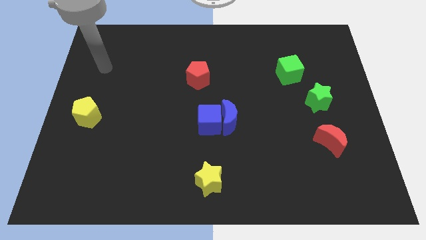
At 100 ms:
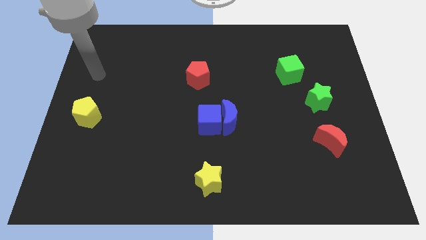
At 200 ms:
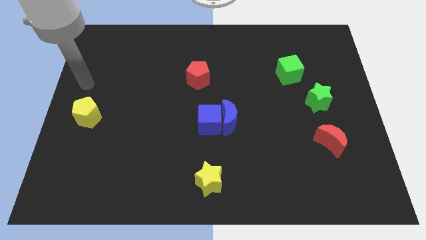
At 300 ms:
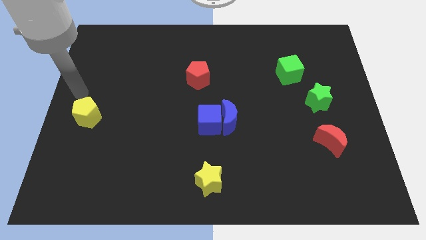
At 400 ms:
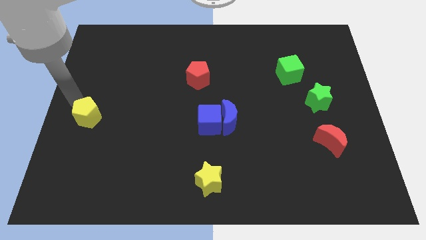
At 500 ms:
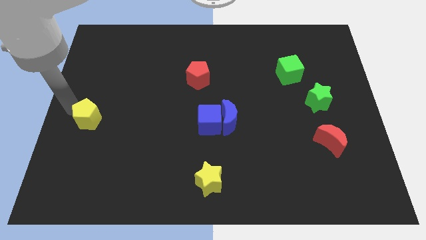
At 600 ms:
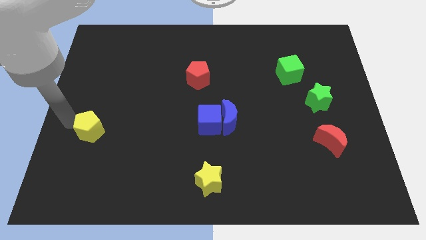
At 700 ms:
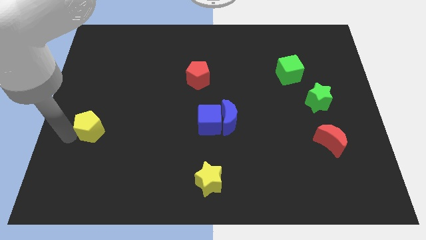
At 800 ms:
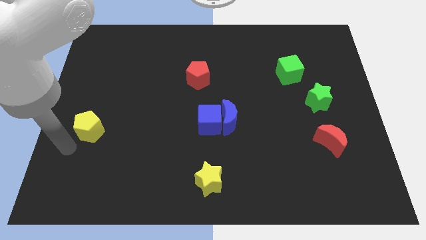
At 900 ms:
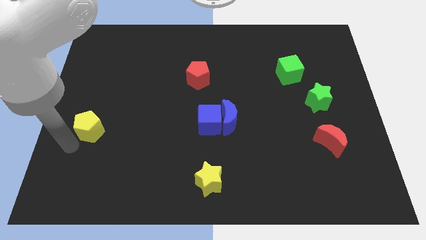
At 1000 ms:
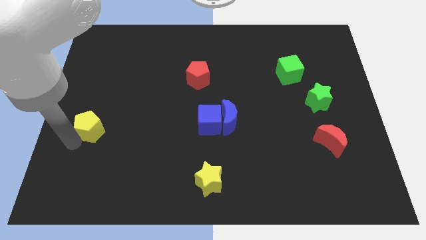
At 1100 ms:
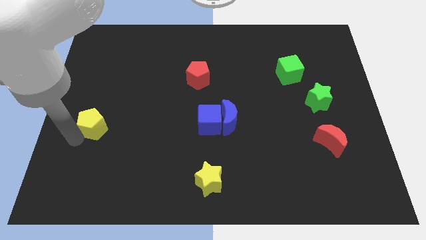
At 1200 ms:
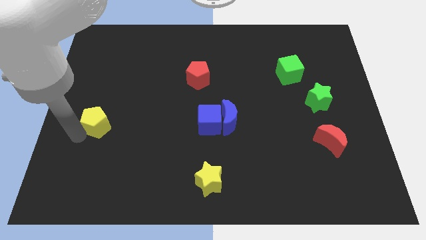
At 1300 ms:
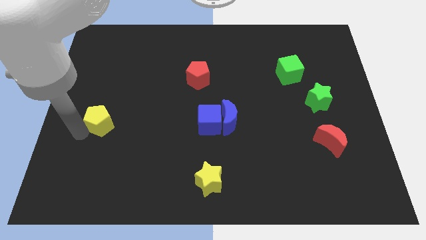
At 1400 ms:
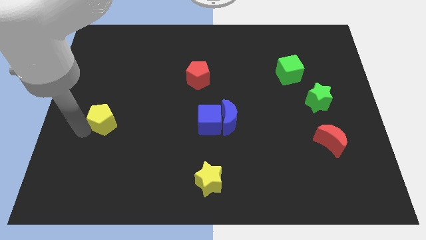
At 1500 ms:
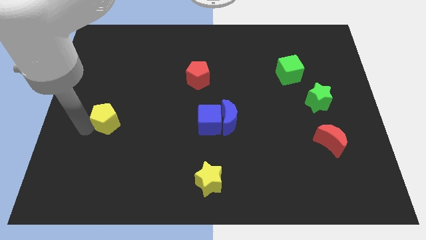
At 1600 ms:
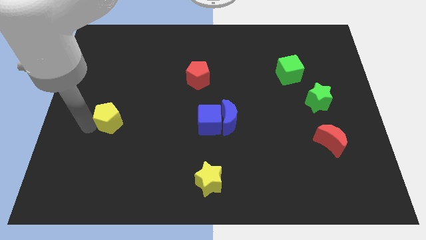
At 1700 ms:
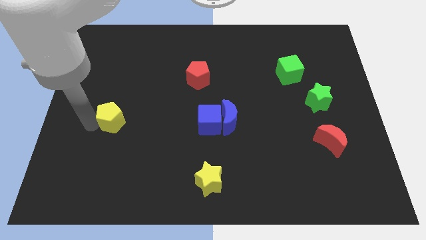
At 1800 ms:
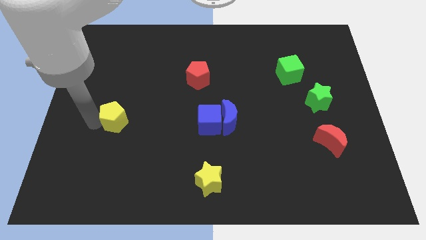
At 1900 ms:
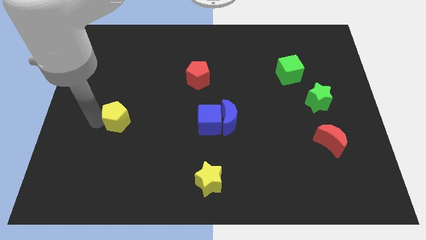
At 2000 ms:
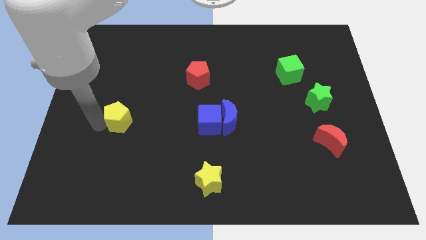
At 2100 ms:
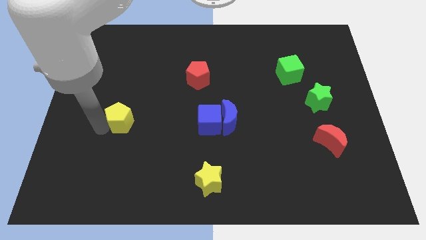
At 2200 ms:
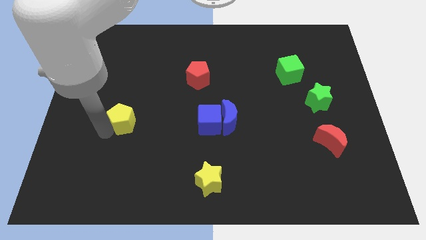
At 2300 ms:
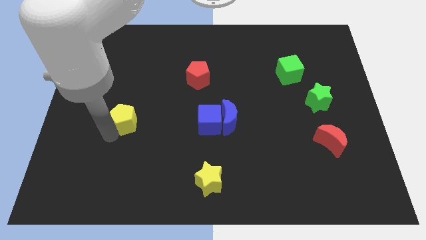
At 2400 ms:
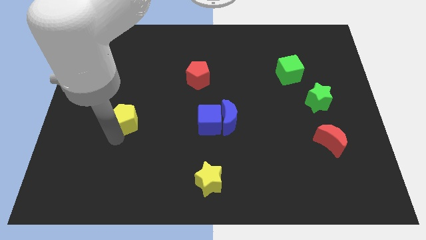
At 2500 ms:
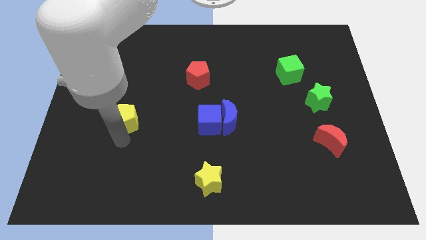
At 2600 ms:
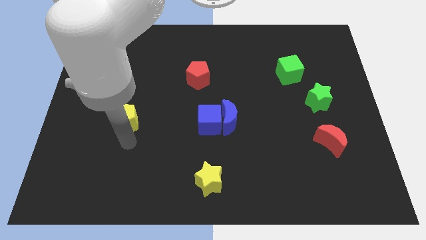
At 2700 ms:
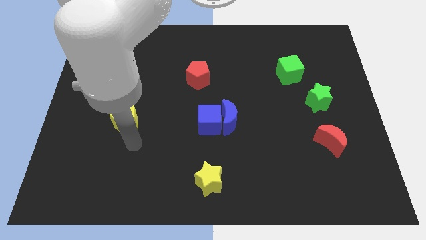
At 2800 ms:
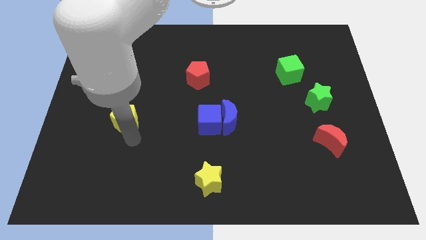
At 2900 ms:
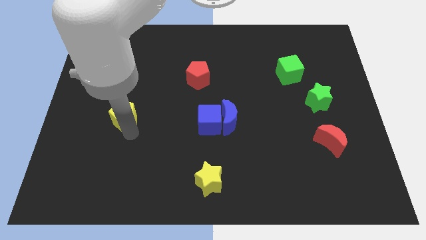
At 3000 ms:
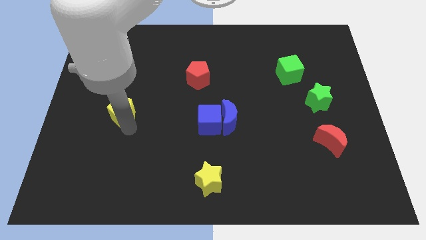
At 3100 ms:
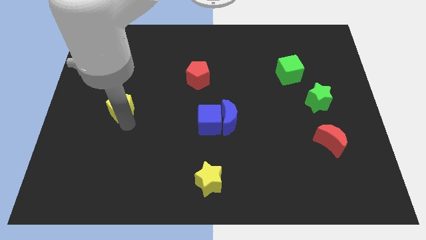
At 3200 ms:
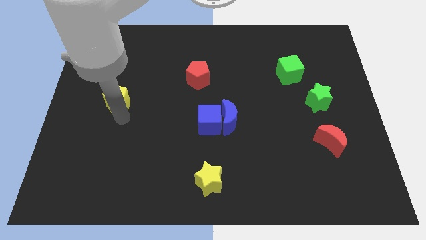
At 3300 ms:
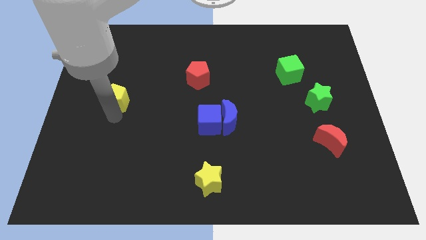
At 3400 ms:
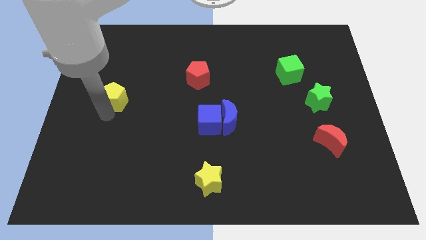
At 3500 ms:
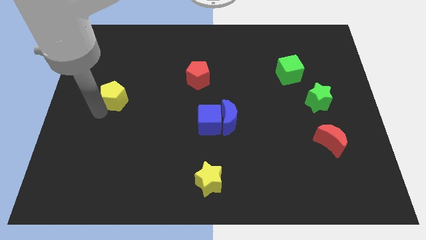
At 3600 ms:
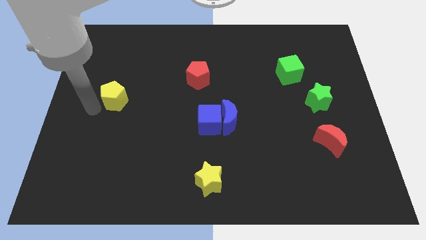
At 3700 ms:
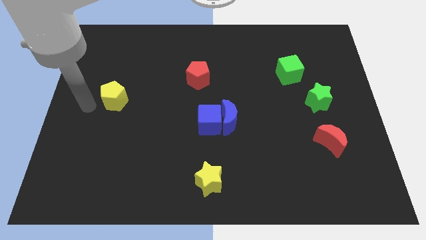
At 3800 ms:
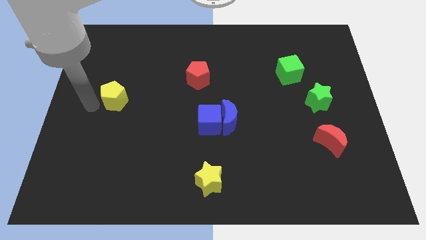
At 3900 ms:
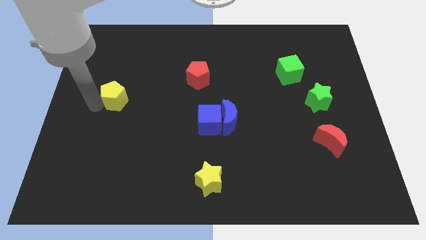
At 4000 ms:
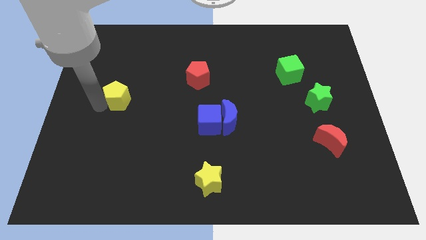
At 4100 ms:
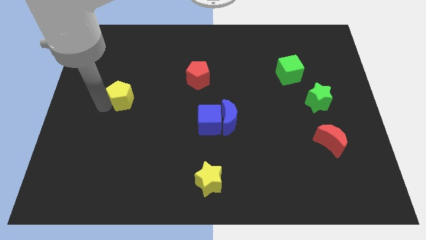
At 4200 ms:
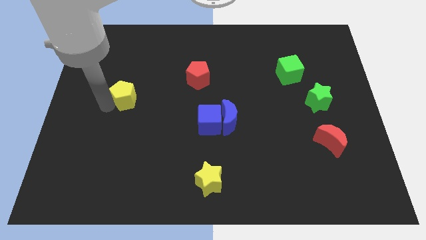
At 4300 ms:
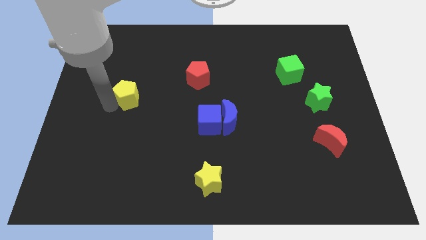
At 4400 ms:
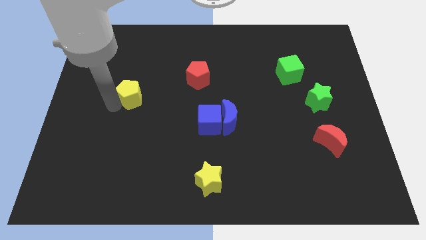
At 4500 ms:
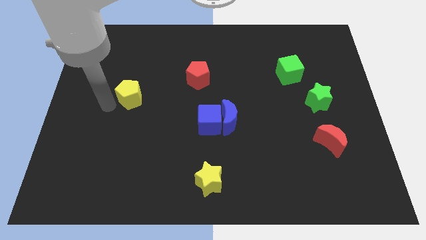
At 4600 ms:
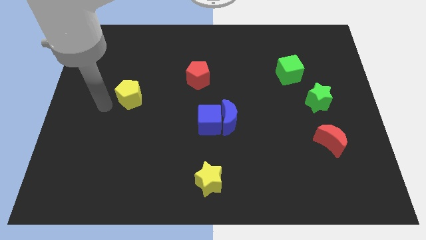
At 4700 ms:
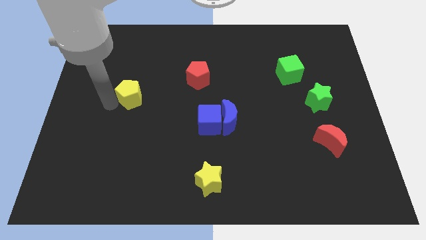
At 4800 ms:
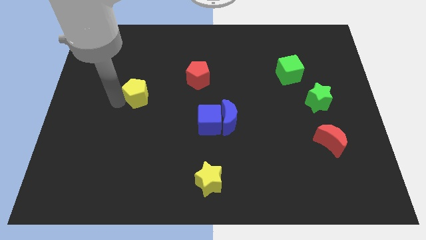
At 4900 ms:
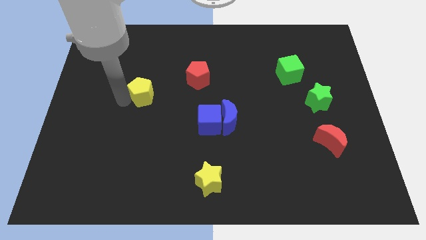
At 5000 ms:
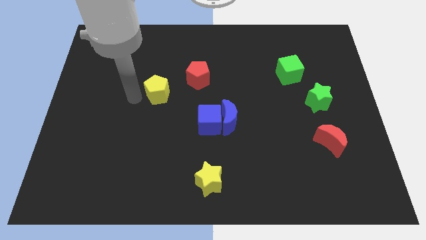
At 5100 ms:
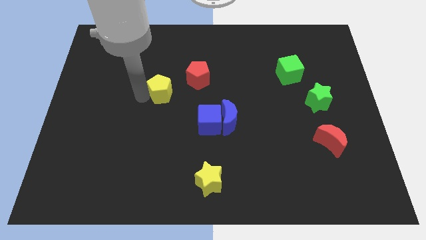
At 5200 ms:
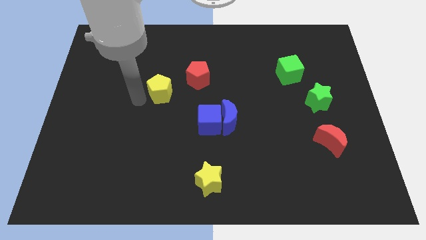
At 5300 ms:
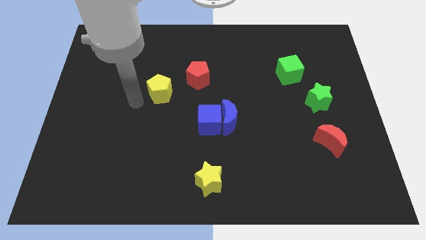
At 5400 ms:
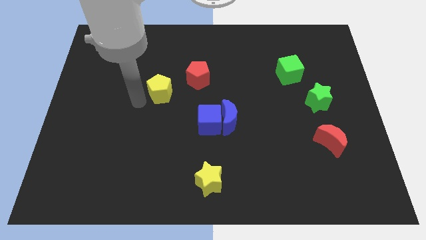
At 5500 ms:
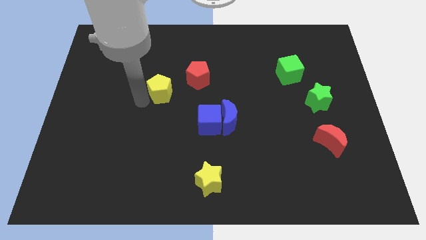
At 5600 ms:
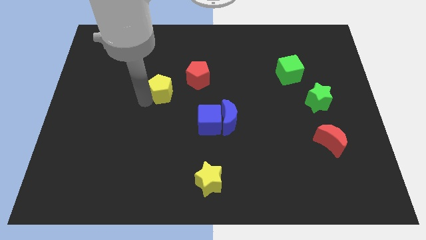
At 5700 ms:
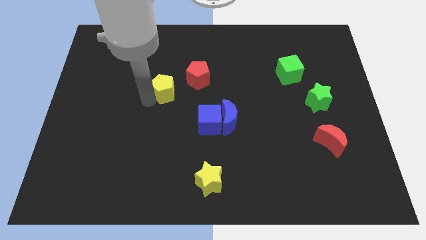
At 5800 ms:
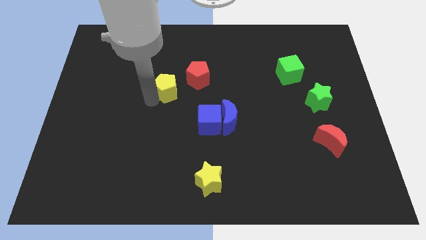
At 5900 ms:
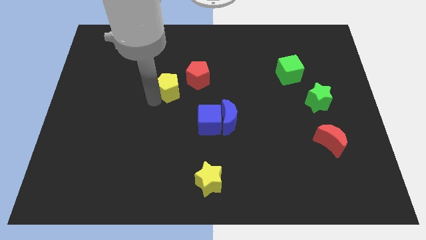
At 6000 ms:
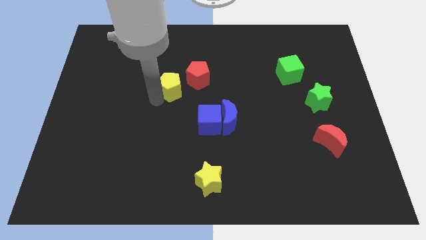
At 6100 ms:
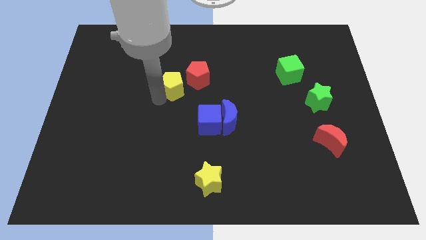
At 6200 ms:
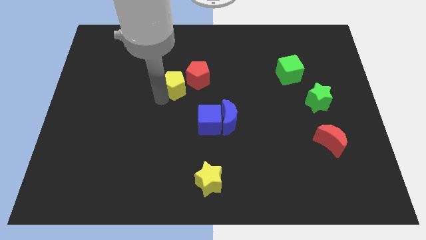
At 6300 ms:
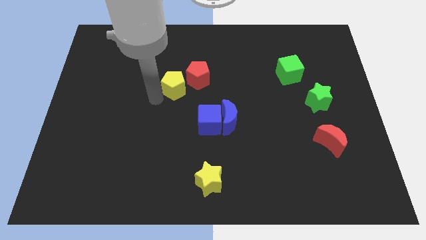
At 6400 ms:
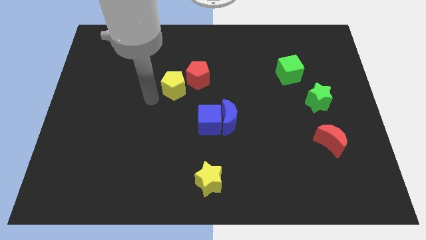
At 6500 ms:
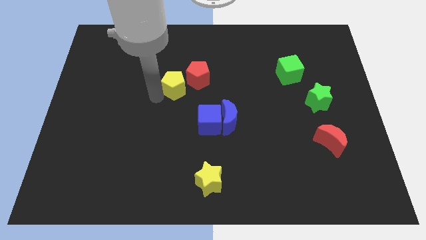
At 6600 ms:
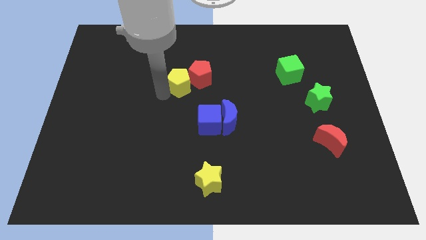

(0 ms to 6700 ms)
put the yellow pentagon towards the red pentagon
